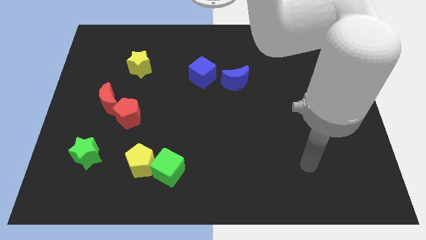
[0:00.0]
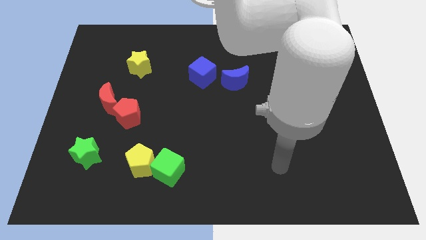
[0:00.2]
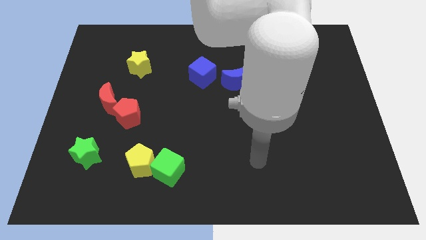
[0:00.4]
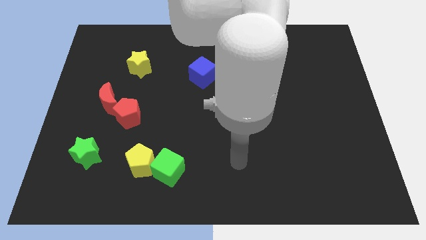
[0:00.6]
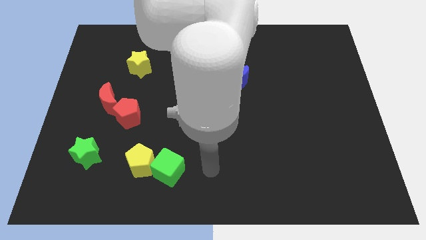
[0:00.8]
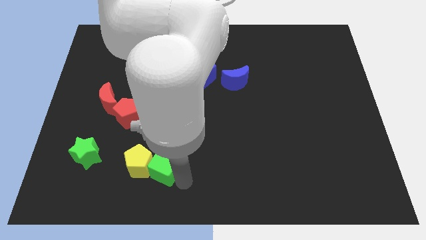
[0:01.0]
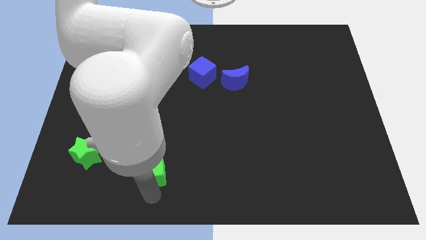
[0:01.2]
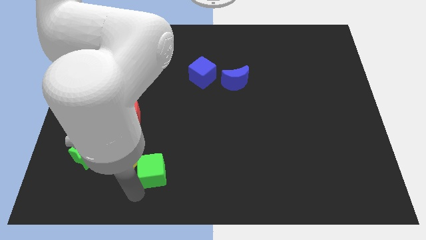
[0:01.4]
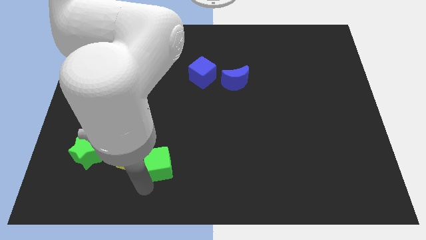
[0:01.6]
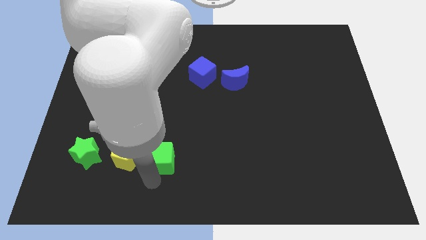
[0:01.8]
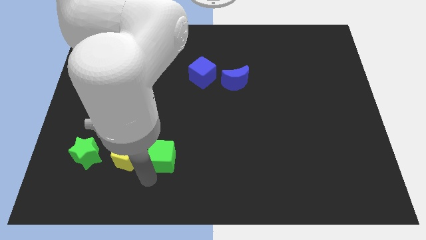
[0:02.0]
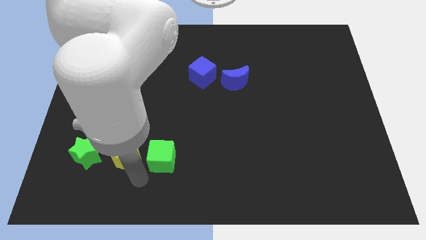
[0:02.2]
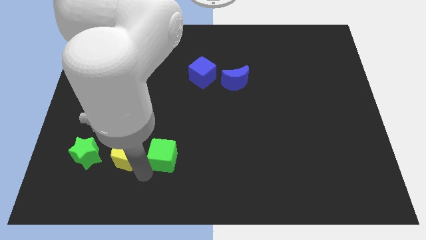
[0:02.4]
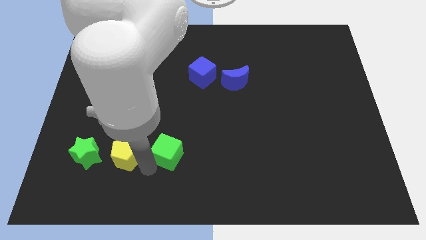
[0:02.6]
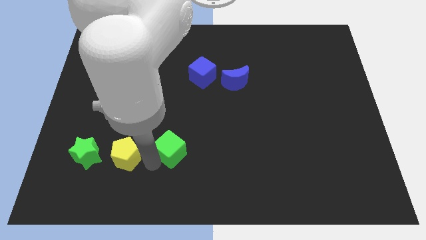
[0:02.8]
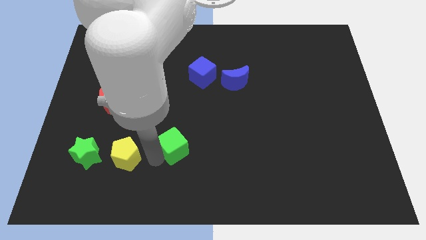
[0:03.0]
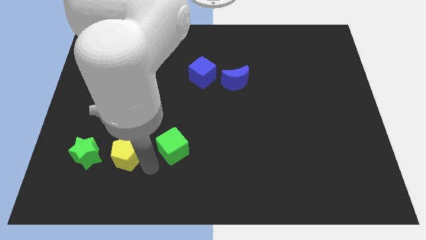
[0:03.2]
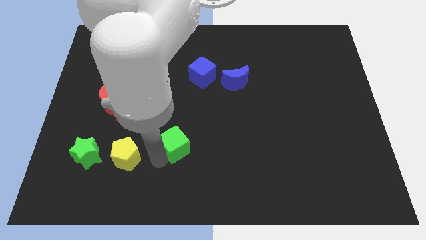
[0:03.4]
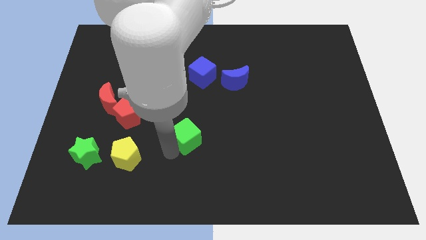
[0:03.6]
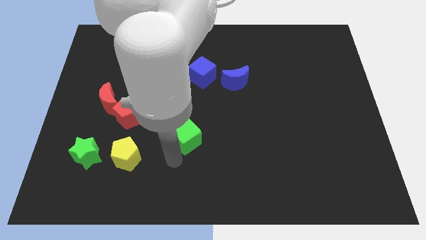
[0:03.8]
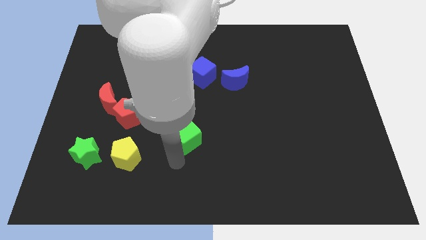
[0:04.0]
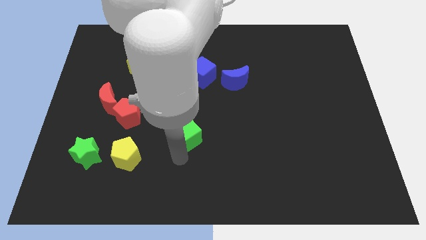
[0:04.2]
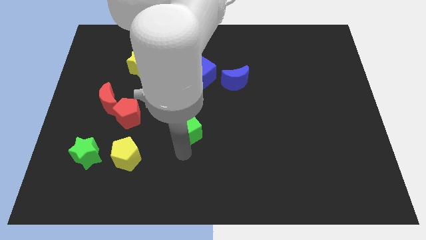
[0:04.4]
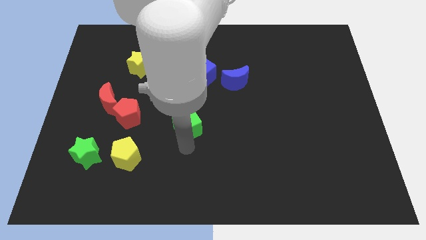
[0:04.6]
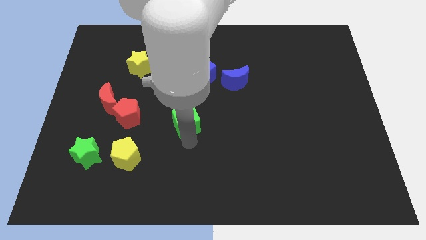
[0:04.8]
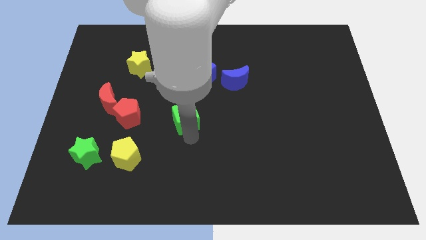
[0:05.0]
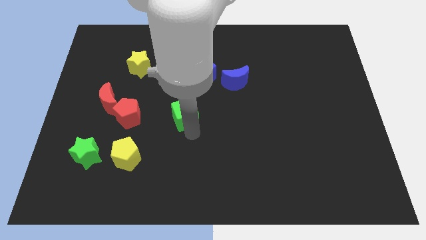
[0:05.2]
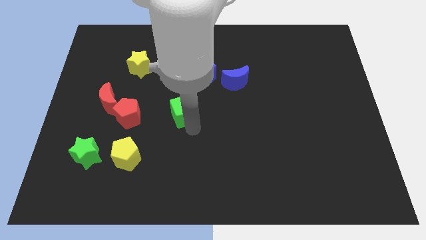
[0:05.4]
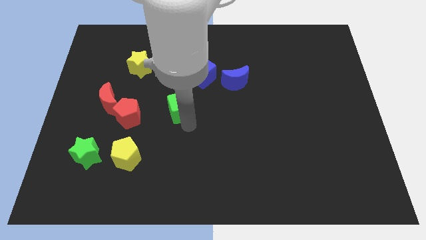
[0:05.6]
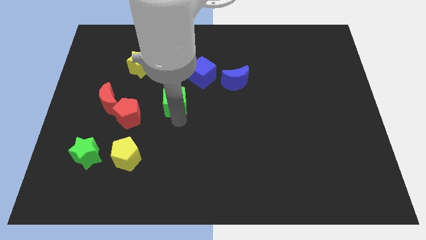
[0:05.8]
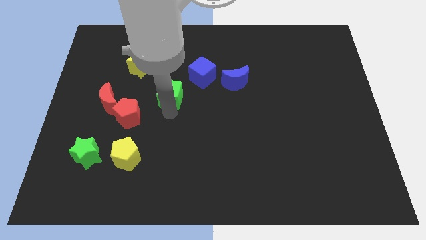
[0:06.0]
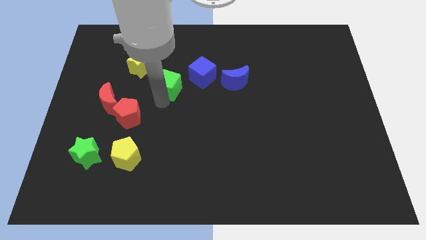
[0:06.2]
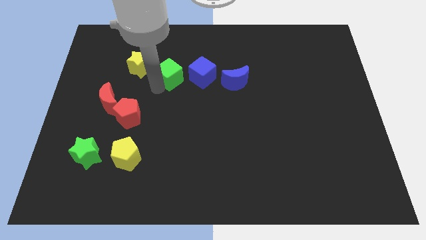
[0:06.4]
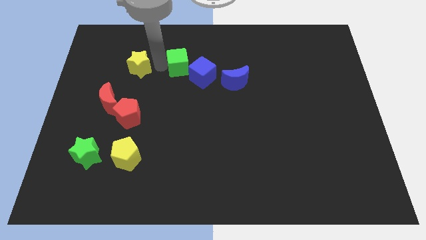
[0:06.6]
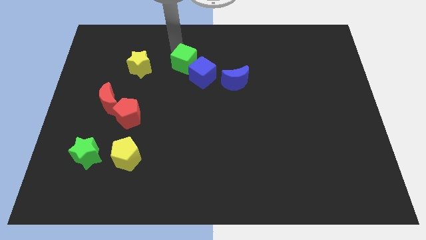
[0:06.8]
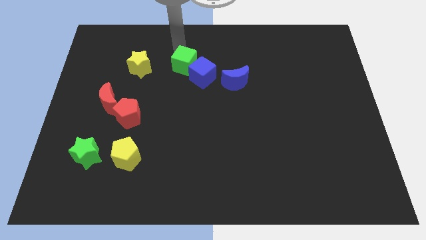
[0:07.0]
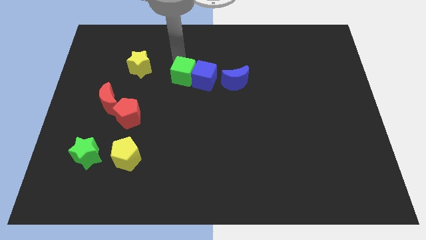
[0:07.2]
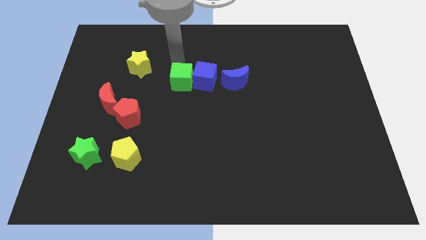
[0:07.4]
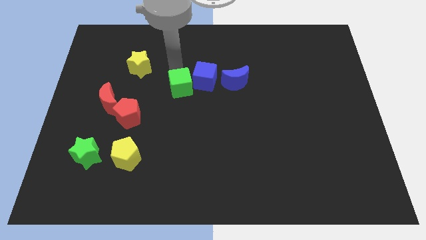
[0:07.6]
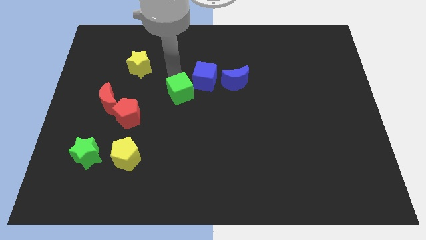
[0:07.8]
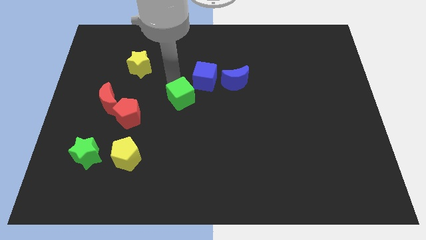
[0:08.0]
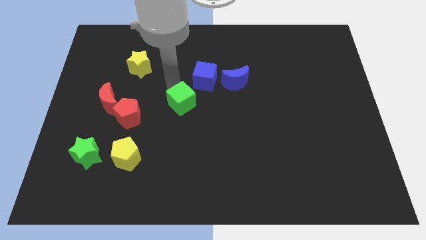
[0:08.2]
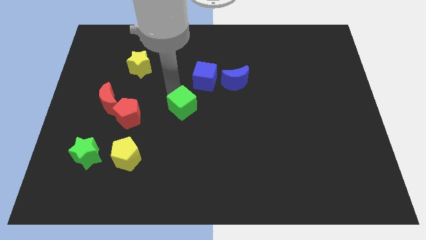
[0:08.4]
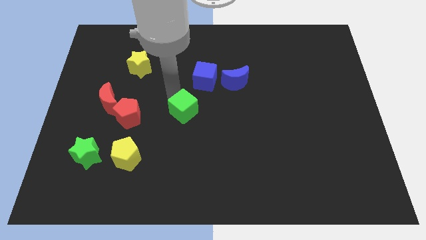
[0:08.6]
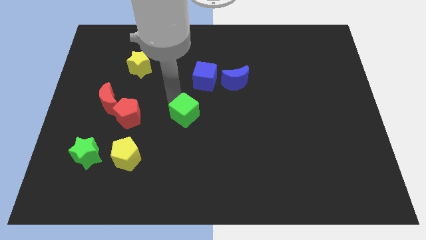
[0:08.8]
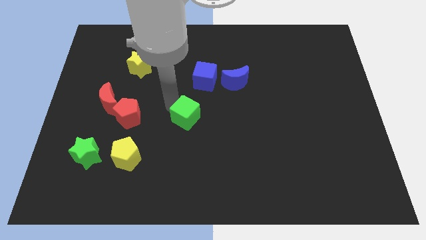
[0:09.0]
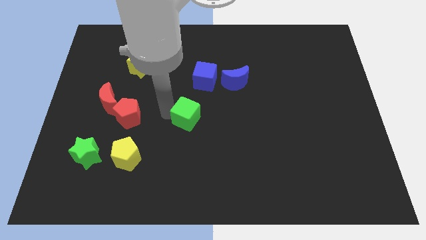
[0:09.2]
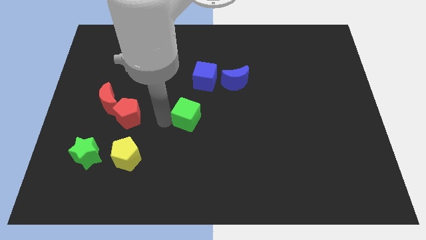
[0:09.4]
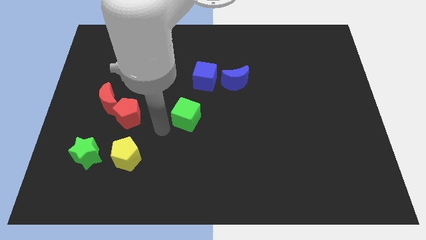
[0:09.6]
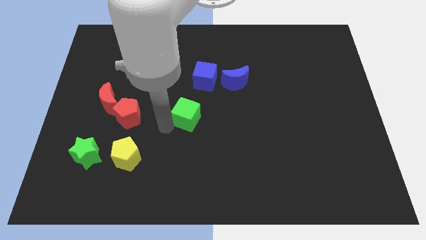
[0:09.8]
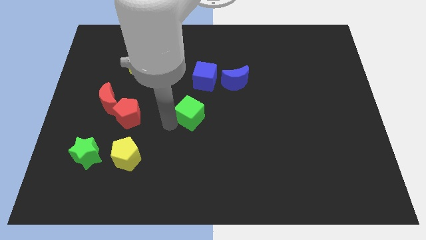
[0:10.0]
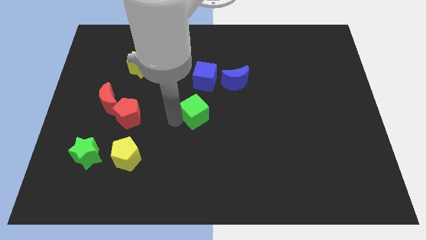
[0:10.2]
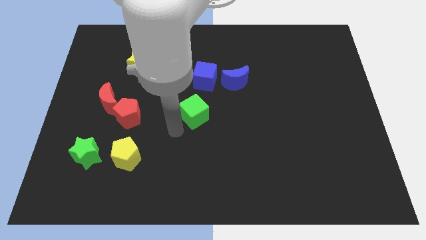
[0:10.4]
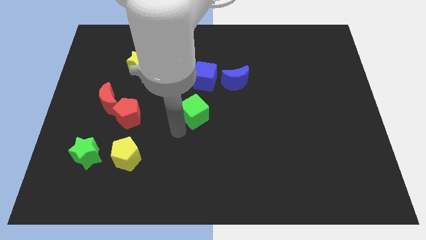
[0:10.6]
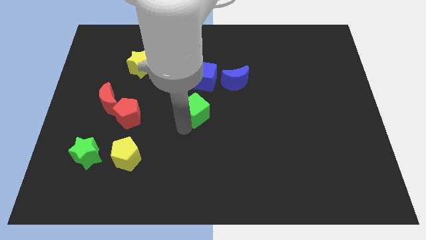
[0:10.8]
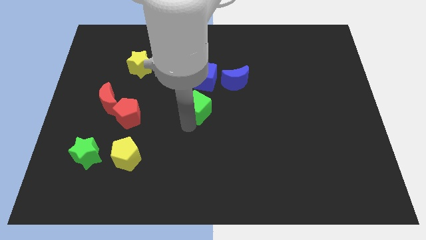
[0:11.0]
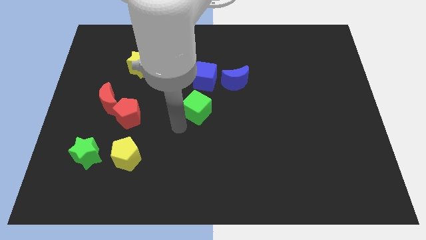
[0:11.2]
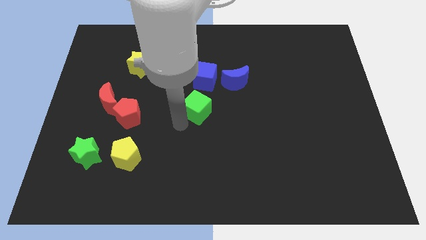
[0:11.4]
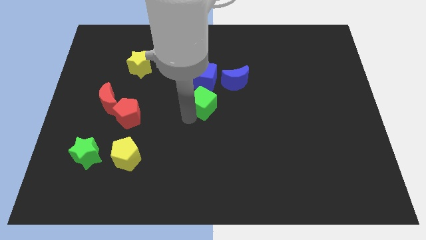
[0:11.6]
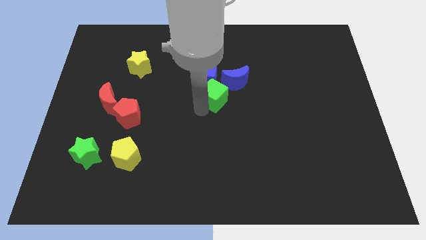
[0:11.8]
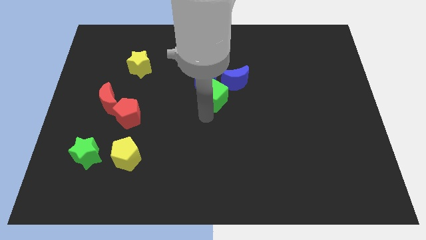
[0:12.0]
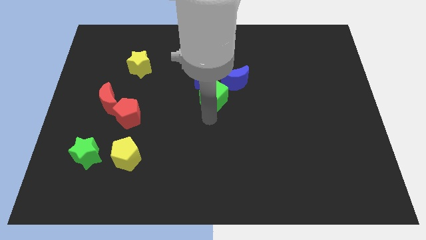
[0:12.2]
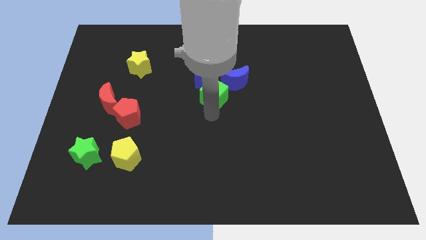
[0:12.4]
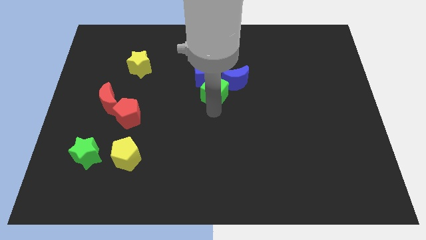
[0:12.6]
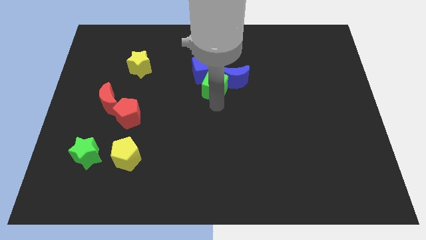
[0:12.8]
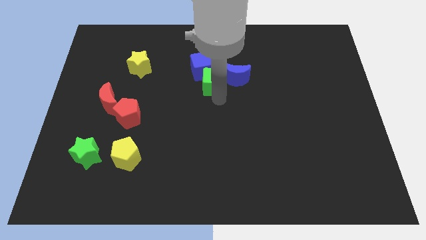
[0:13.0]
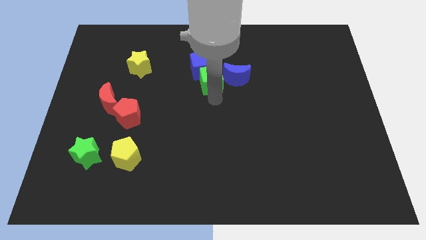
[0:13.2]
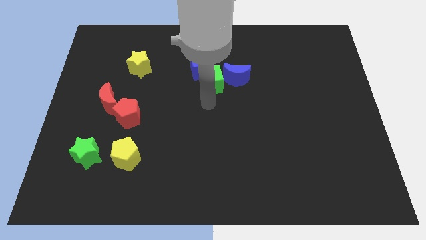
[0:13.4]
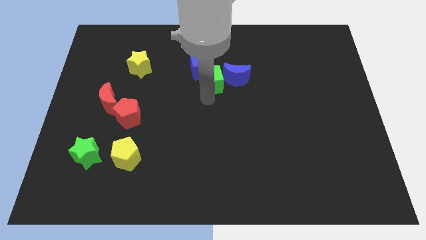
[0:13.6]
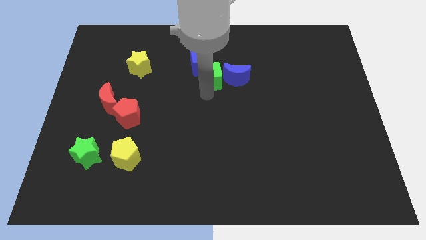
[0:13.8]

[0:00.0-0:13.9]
move the green cube diagonally up and to the left of the blue moon
